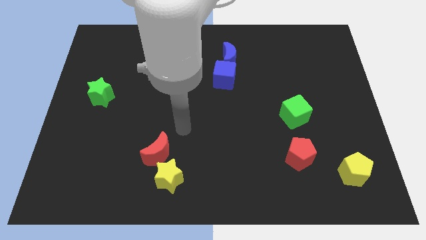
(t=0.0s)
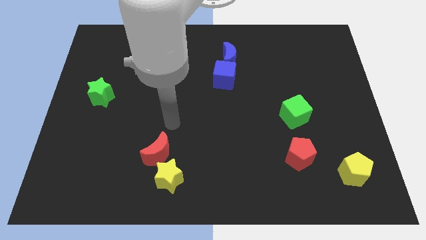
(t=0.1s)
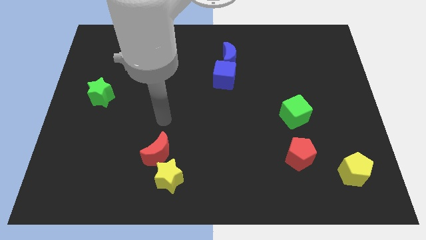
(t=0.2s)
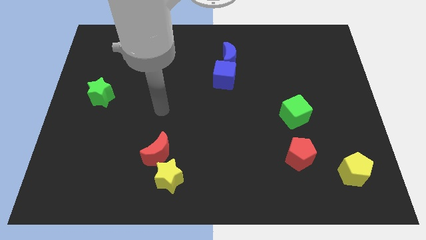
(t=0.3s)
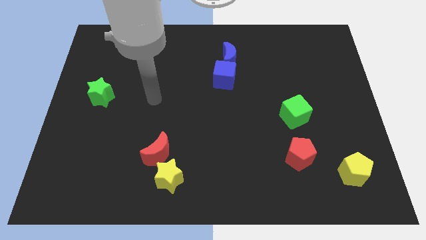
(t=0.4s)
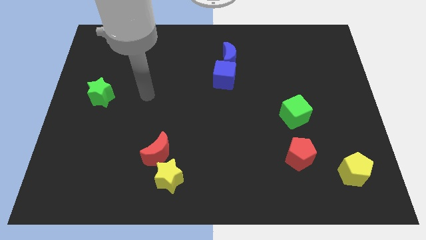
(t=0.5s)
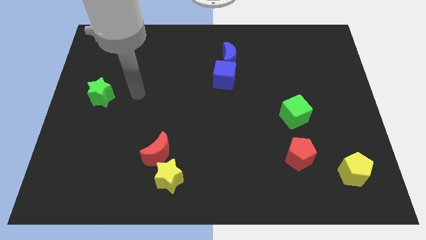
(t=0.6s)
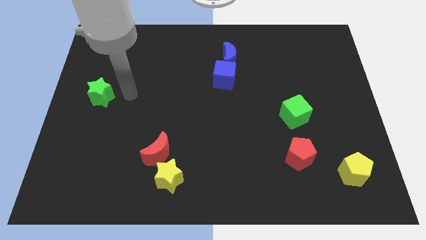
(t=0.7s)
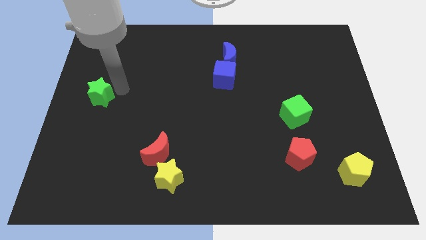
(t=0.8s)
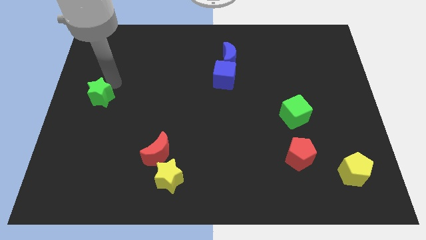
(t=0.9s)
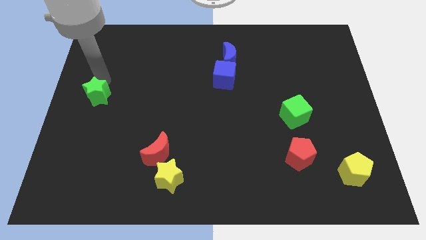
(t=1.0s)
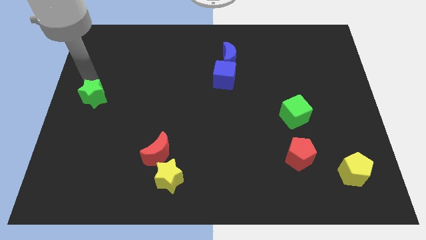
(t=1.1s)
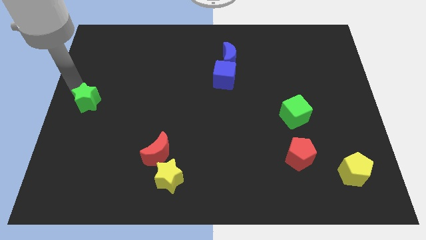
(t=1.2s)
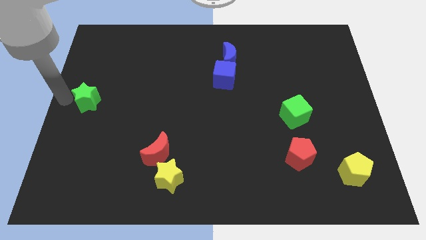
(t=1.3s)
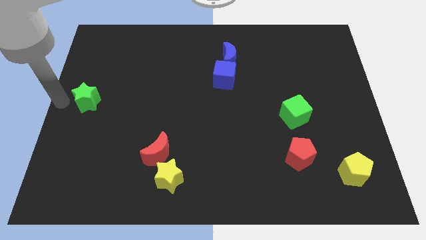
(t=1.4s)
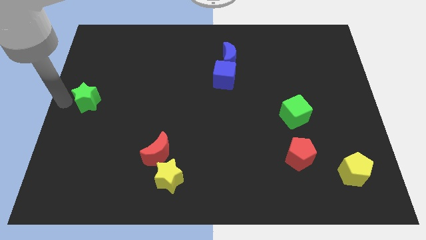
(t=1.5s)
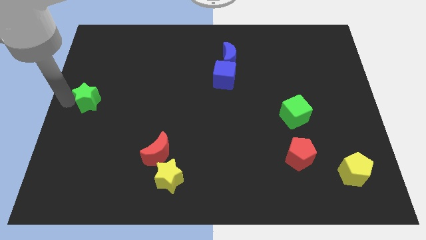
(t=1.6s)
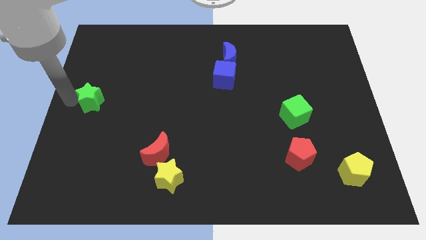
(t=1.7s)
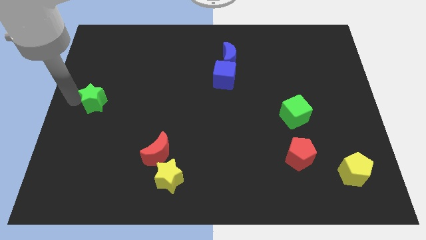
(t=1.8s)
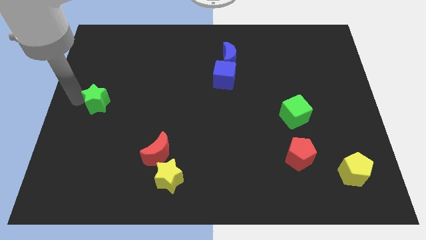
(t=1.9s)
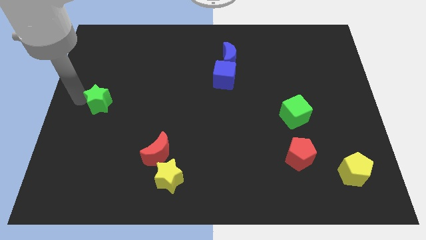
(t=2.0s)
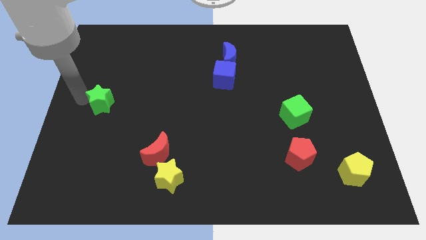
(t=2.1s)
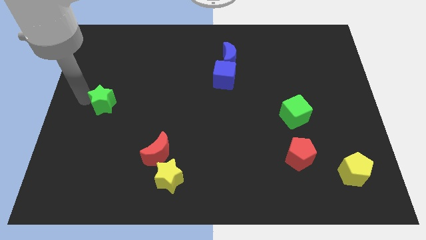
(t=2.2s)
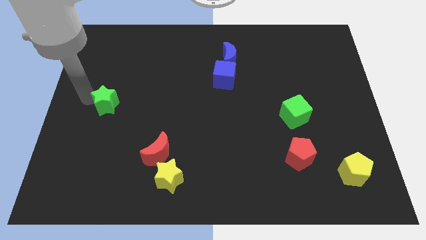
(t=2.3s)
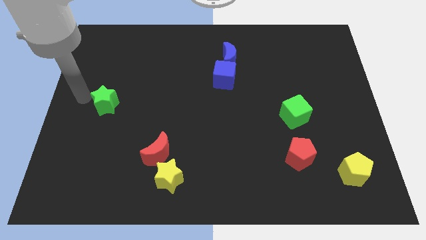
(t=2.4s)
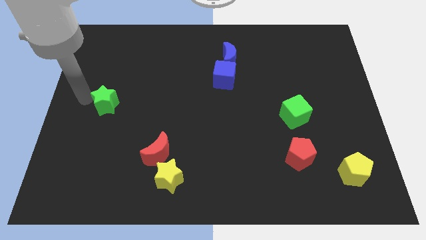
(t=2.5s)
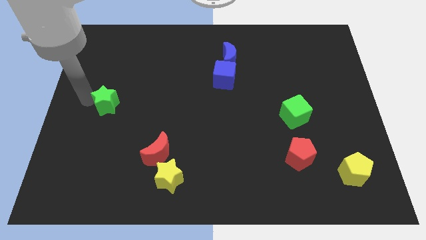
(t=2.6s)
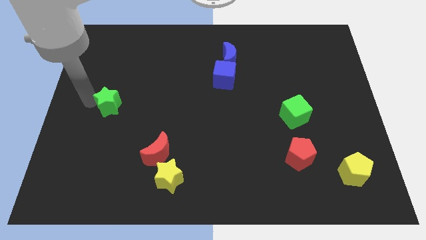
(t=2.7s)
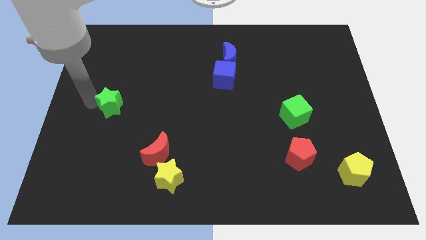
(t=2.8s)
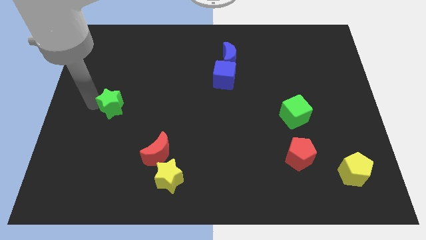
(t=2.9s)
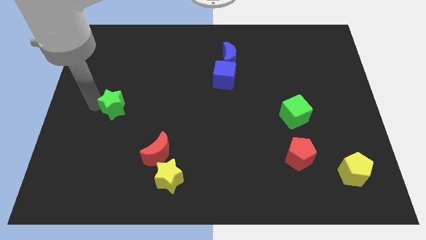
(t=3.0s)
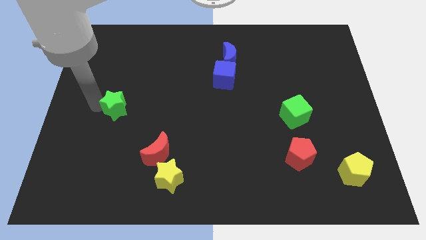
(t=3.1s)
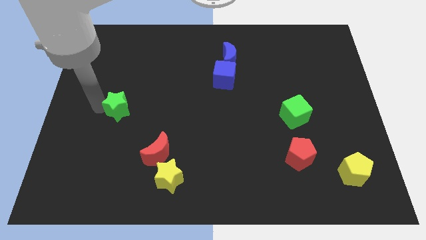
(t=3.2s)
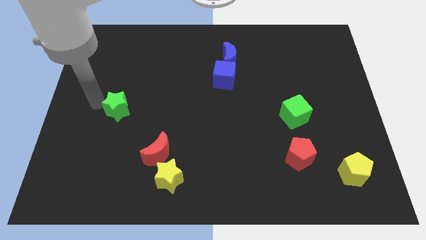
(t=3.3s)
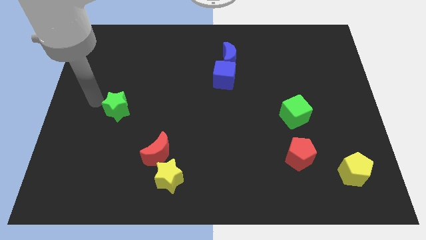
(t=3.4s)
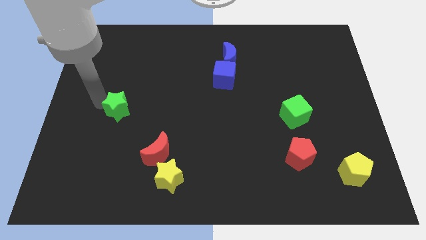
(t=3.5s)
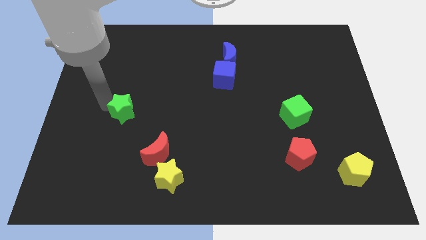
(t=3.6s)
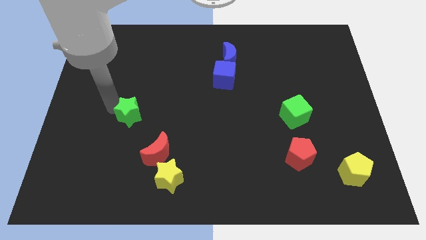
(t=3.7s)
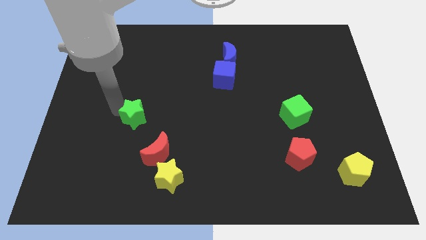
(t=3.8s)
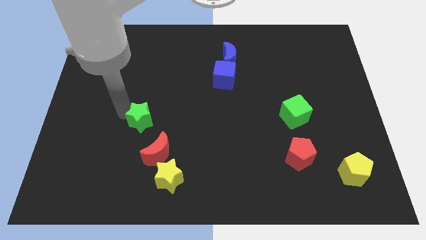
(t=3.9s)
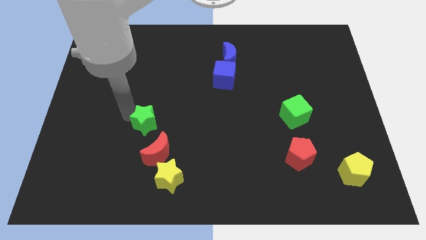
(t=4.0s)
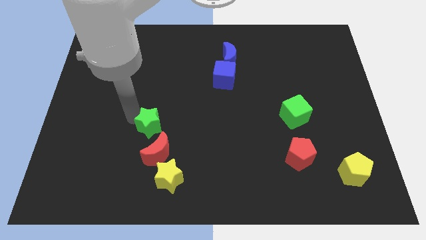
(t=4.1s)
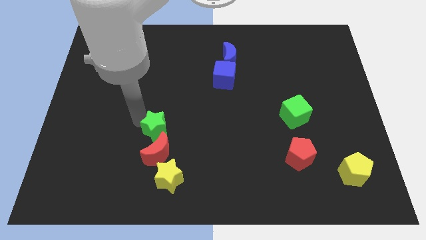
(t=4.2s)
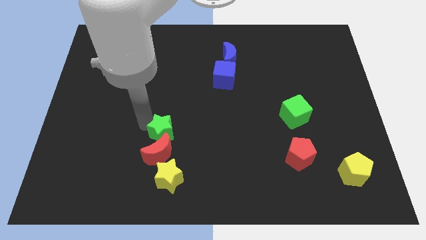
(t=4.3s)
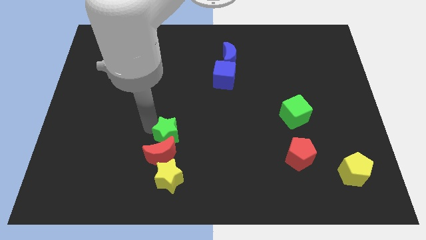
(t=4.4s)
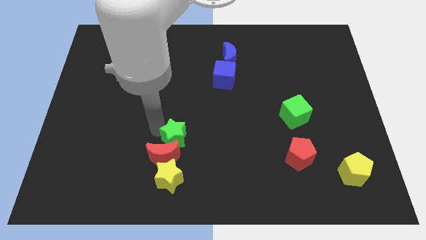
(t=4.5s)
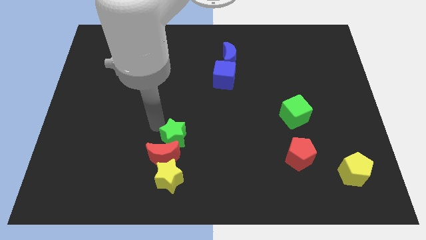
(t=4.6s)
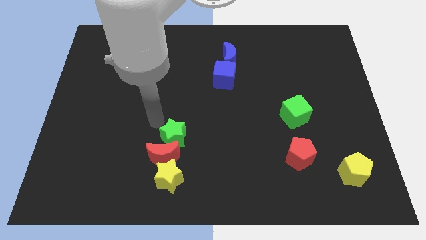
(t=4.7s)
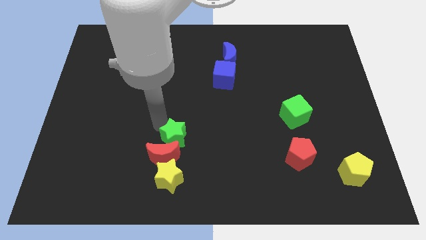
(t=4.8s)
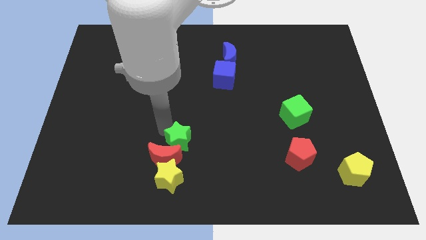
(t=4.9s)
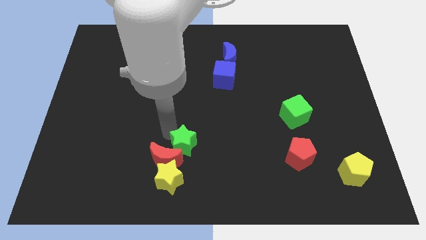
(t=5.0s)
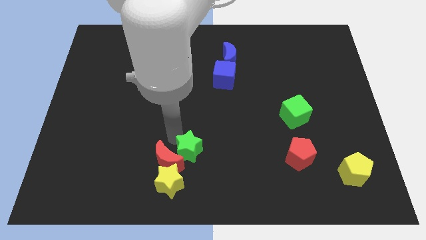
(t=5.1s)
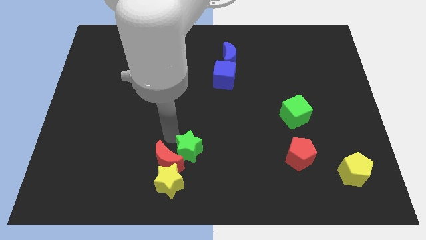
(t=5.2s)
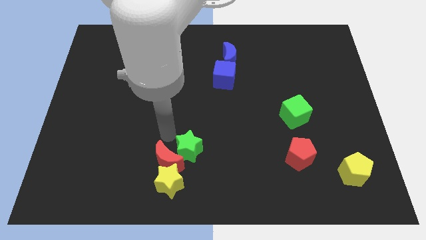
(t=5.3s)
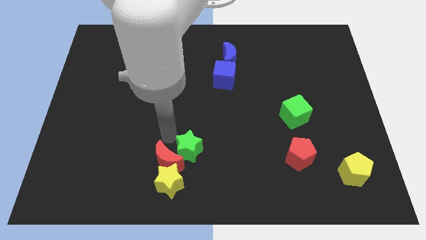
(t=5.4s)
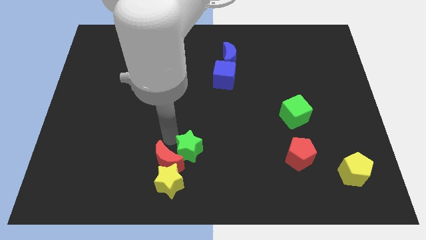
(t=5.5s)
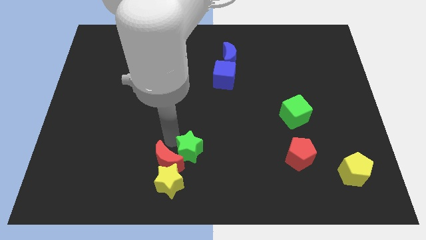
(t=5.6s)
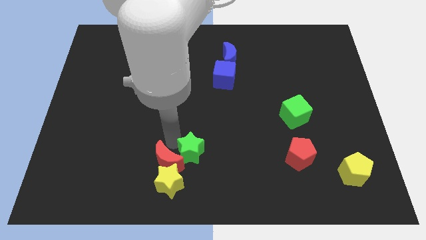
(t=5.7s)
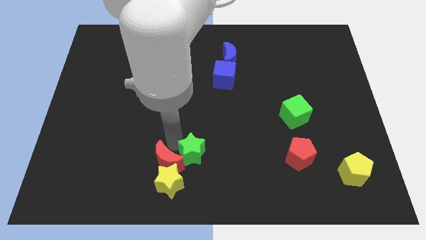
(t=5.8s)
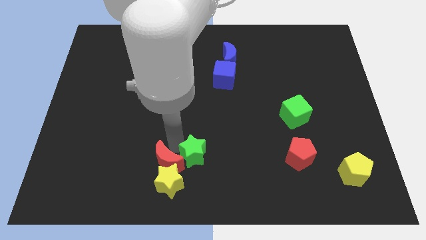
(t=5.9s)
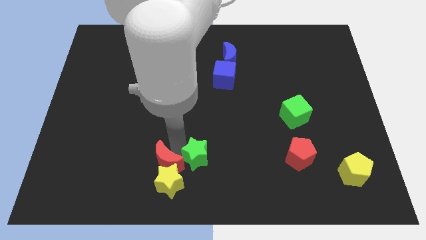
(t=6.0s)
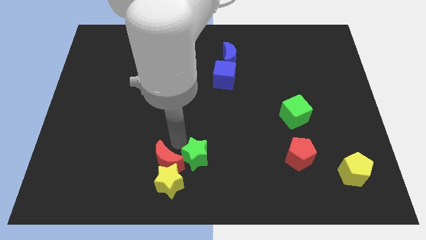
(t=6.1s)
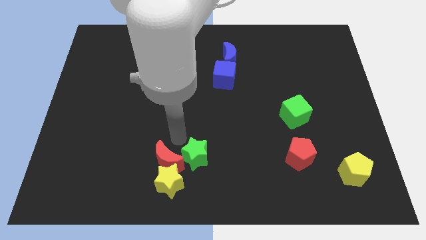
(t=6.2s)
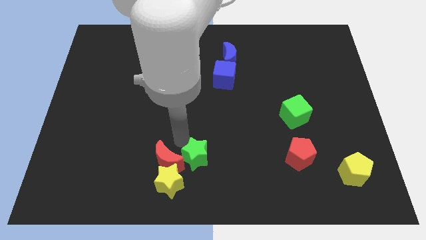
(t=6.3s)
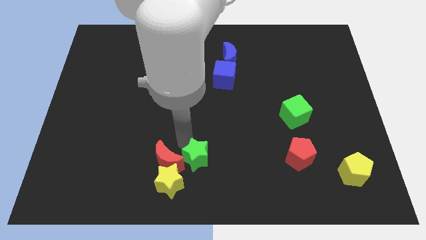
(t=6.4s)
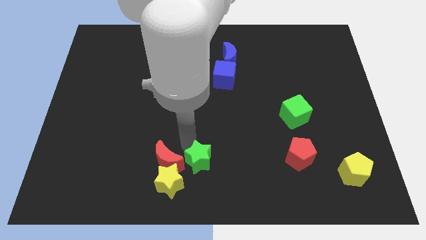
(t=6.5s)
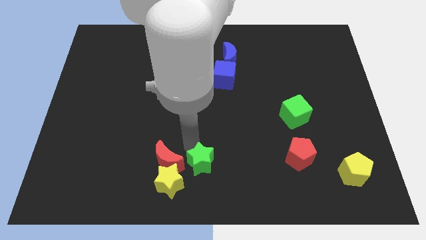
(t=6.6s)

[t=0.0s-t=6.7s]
push the green star to the right of the yellow star
